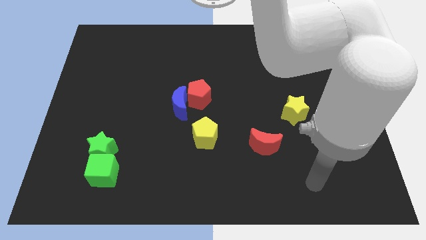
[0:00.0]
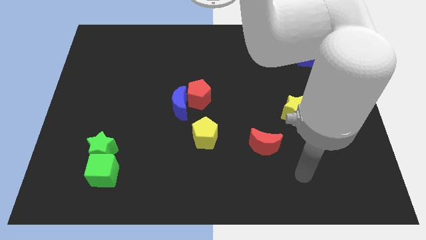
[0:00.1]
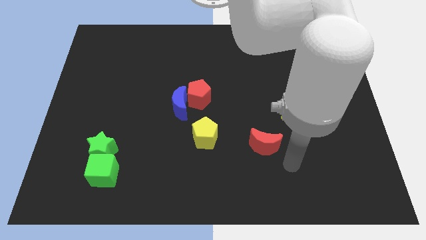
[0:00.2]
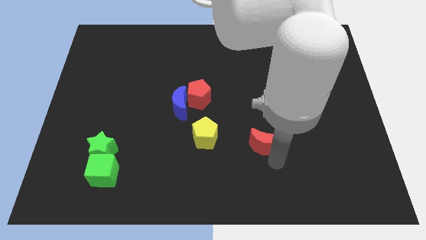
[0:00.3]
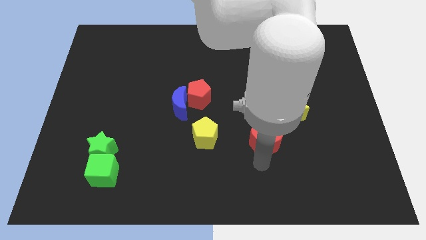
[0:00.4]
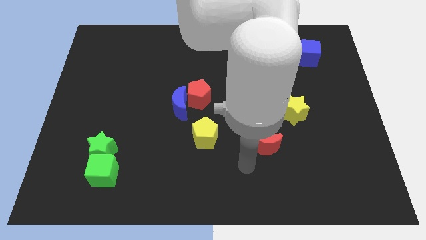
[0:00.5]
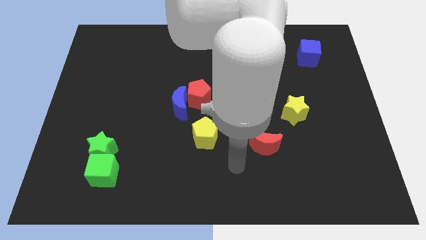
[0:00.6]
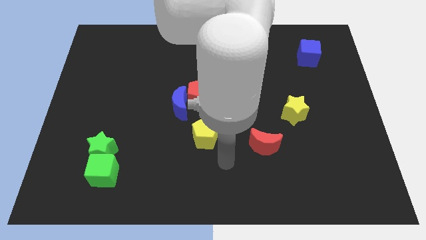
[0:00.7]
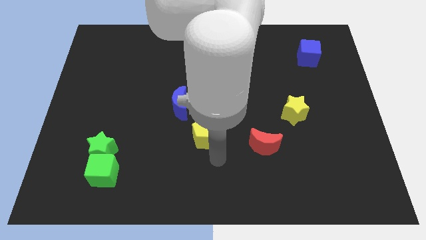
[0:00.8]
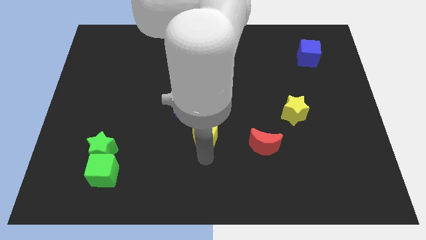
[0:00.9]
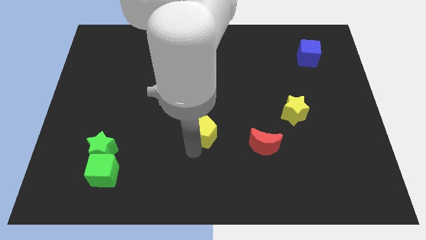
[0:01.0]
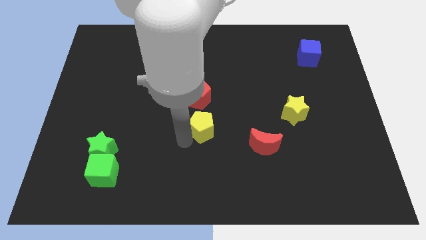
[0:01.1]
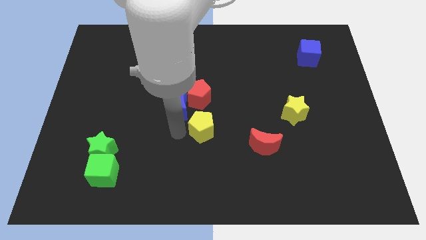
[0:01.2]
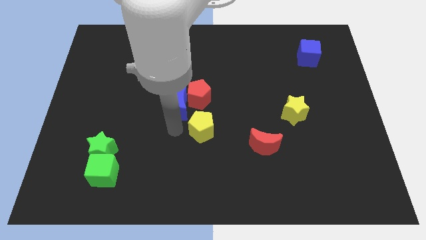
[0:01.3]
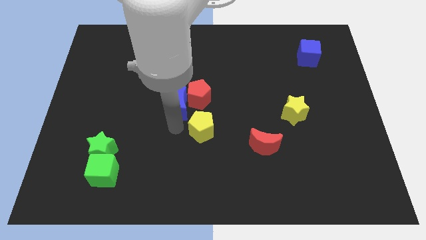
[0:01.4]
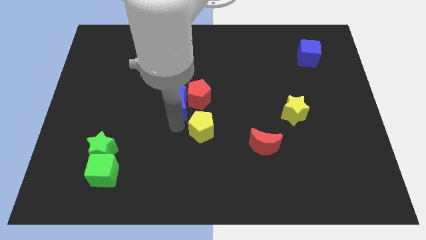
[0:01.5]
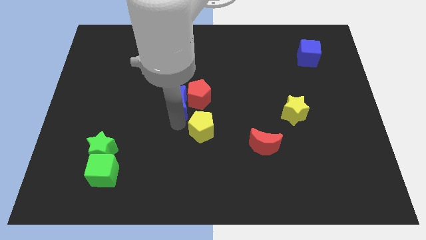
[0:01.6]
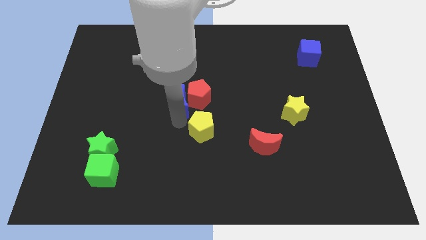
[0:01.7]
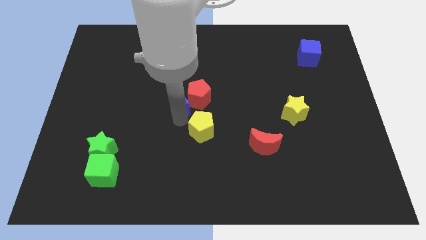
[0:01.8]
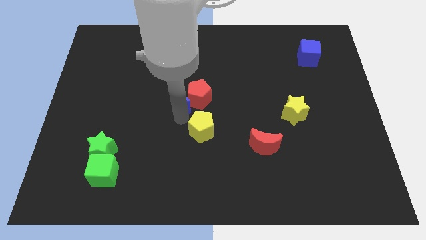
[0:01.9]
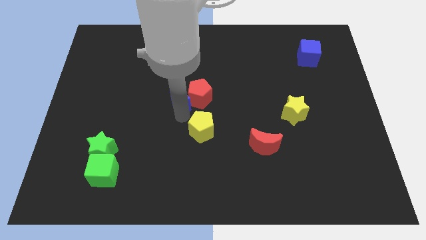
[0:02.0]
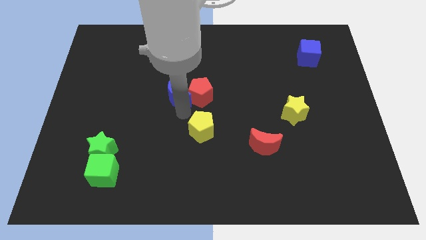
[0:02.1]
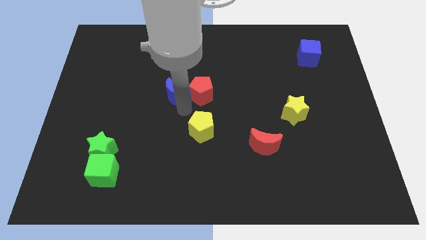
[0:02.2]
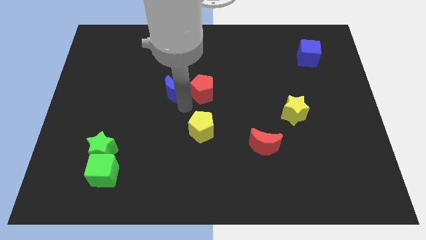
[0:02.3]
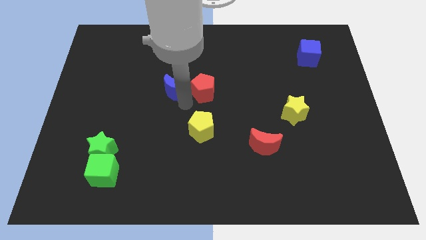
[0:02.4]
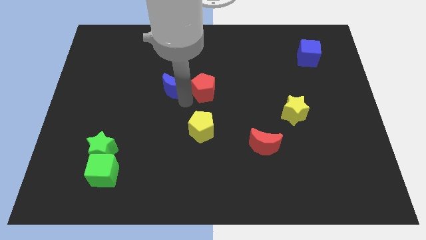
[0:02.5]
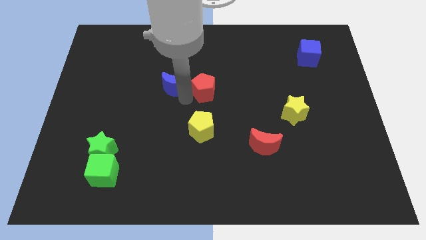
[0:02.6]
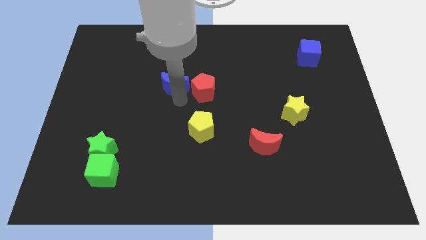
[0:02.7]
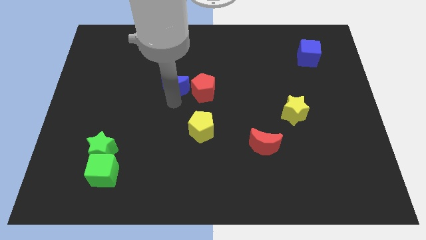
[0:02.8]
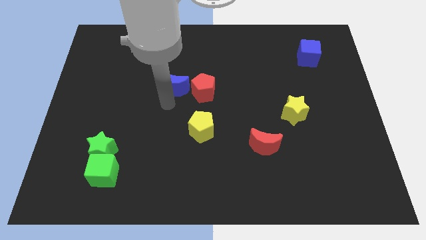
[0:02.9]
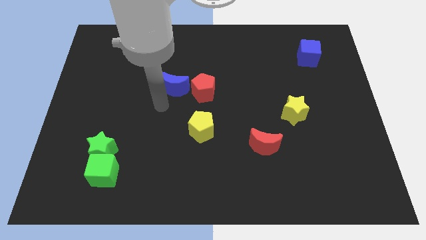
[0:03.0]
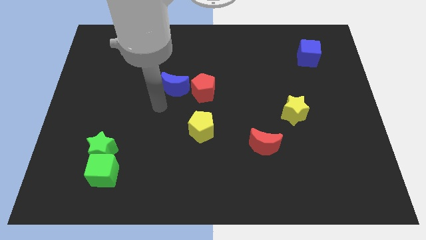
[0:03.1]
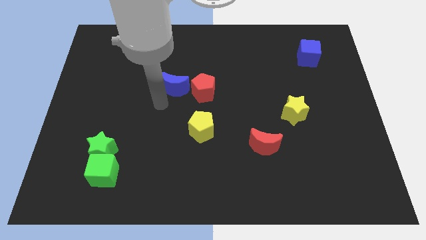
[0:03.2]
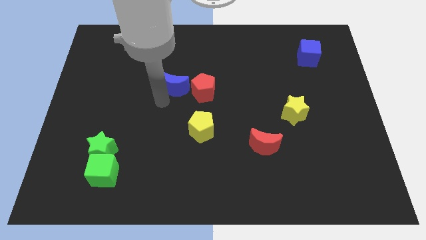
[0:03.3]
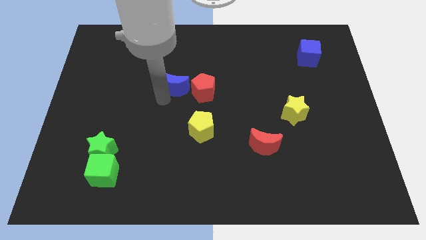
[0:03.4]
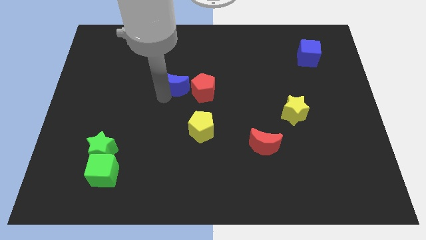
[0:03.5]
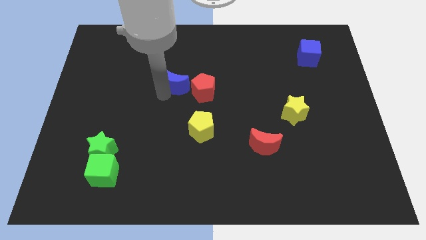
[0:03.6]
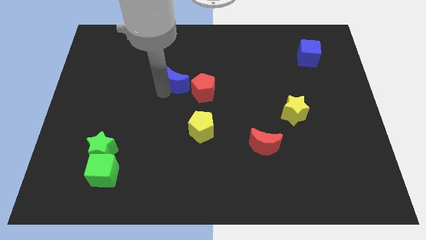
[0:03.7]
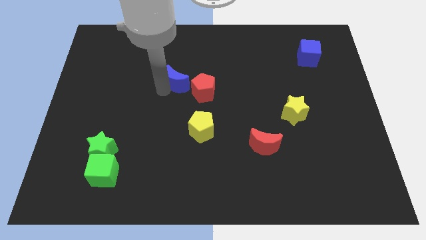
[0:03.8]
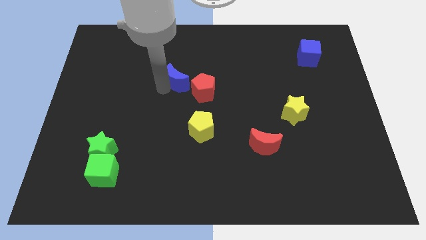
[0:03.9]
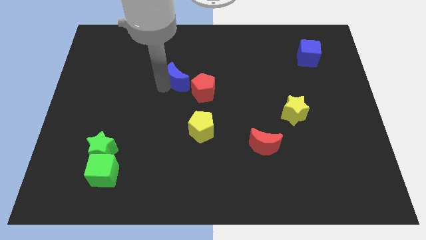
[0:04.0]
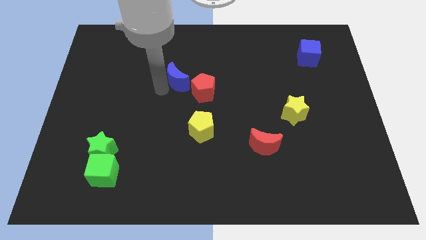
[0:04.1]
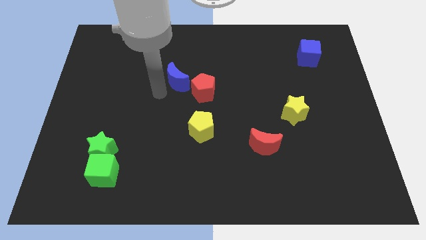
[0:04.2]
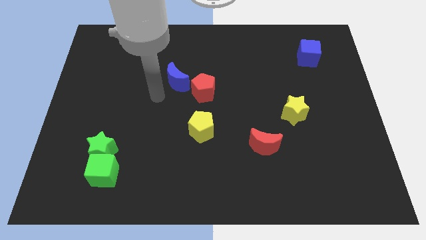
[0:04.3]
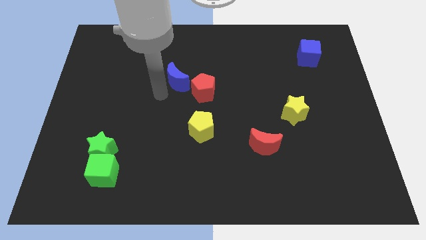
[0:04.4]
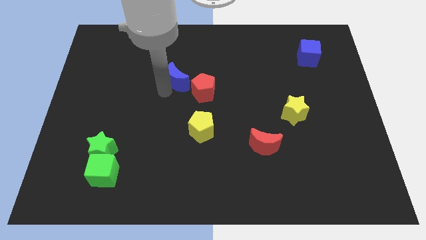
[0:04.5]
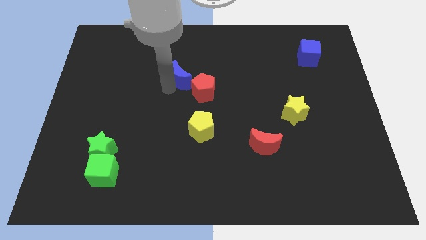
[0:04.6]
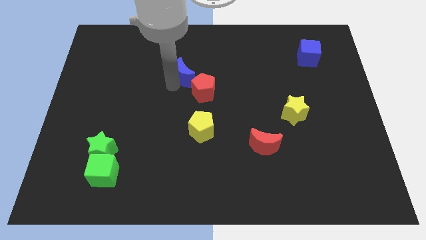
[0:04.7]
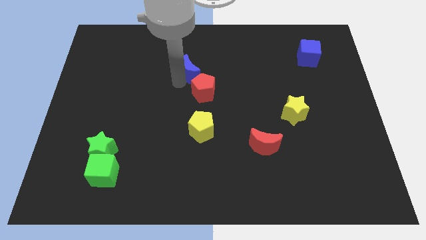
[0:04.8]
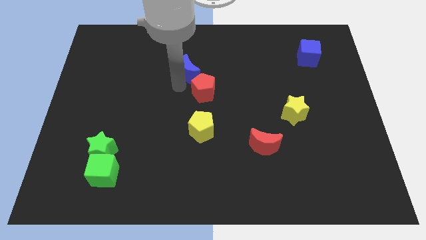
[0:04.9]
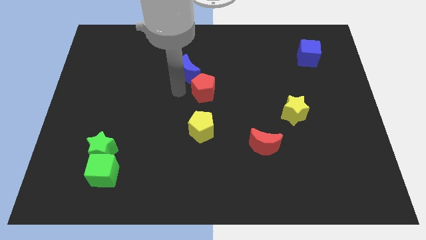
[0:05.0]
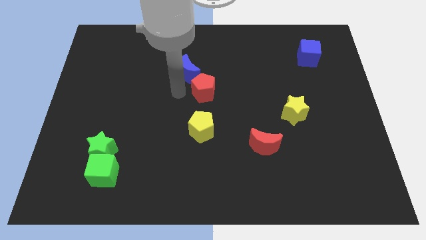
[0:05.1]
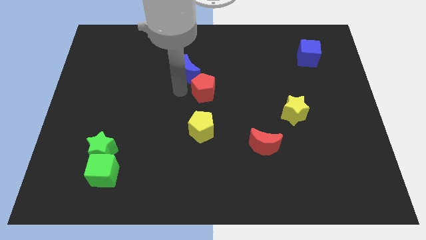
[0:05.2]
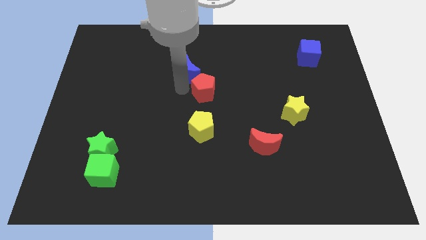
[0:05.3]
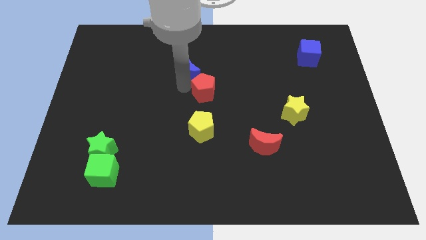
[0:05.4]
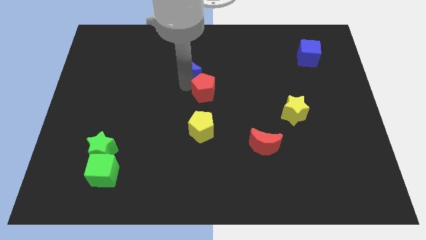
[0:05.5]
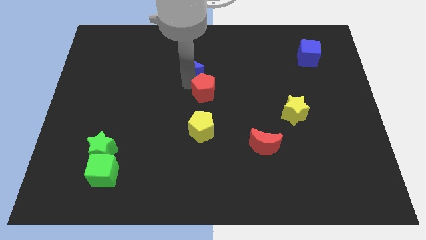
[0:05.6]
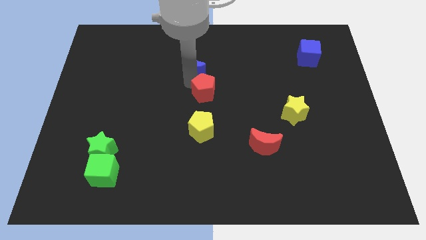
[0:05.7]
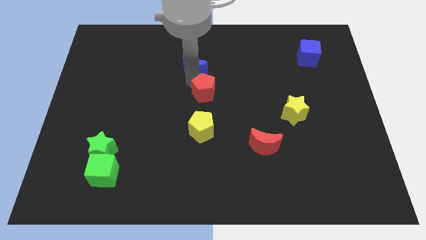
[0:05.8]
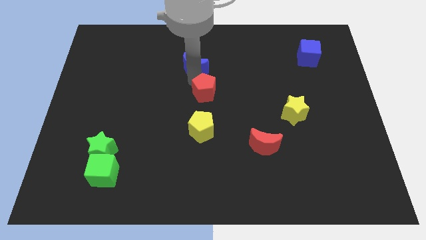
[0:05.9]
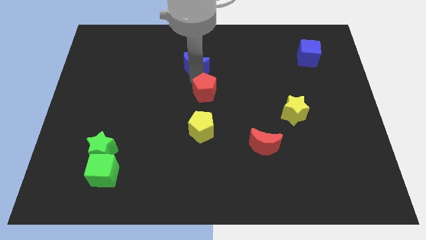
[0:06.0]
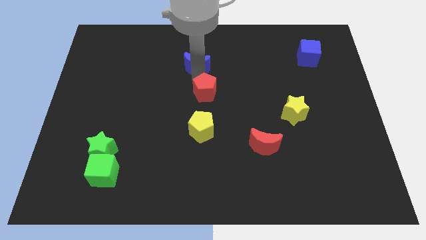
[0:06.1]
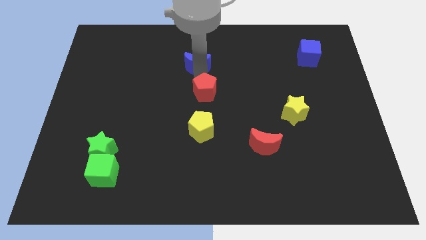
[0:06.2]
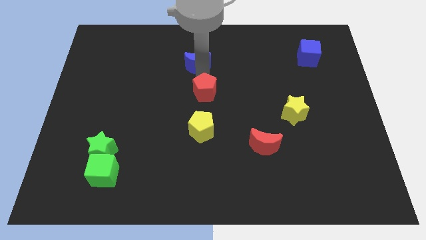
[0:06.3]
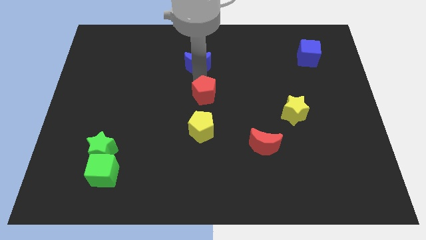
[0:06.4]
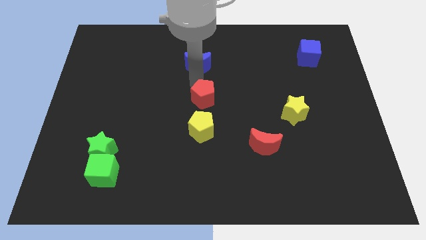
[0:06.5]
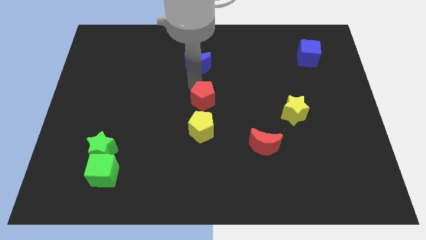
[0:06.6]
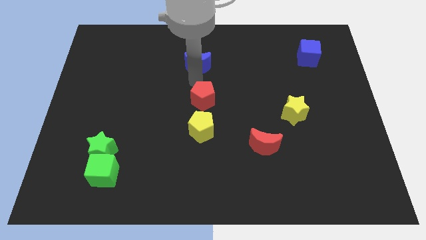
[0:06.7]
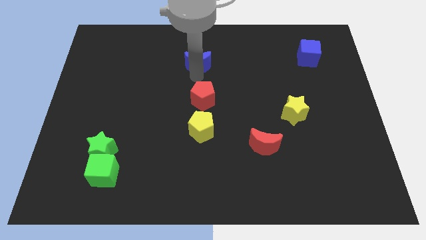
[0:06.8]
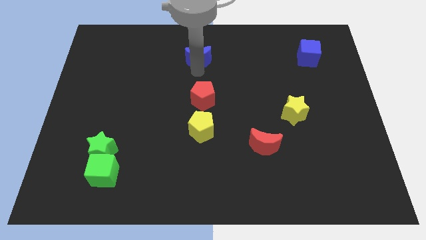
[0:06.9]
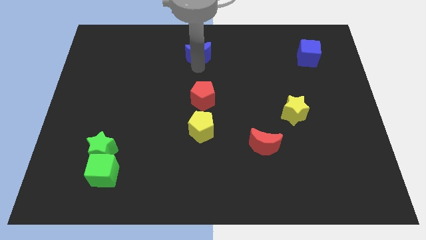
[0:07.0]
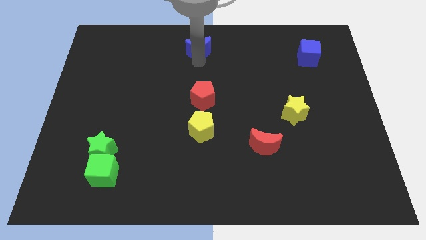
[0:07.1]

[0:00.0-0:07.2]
put the blue moon to the top
